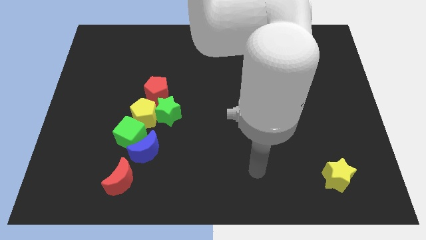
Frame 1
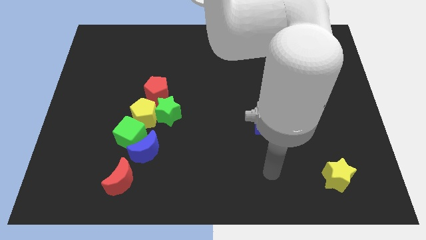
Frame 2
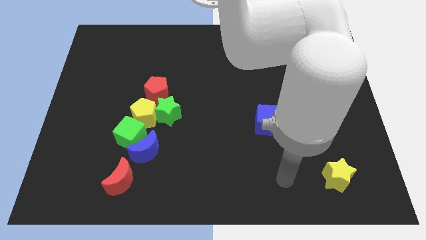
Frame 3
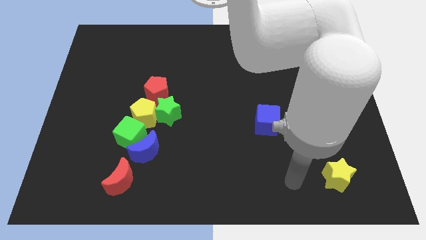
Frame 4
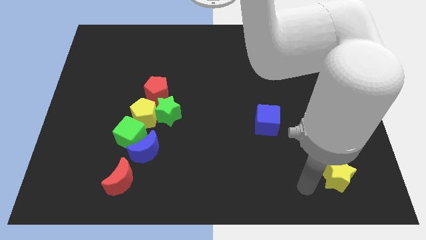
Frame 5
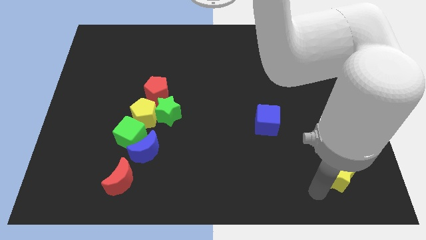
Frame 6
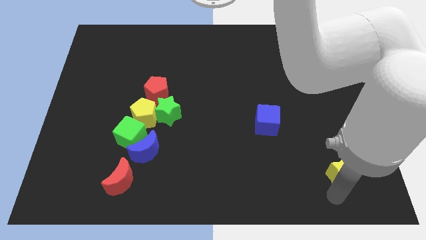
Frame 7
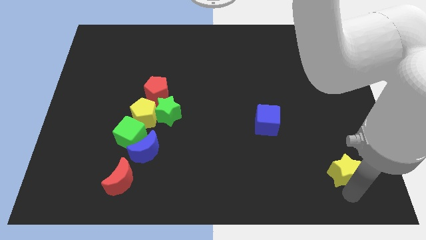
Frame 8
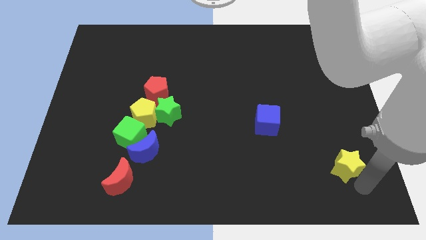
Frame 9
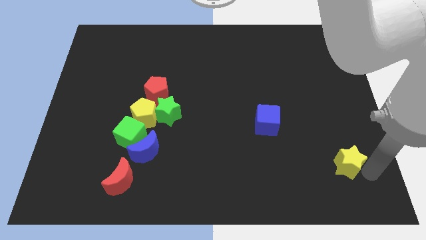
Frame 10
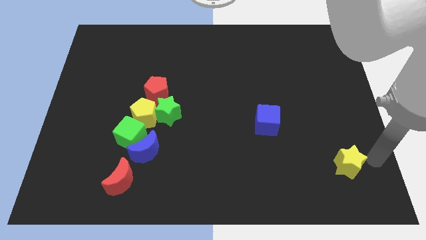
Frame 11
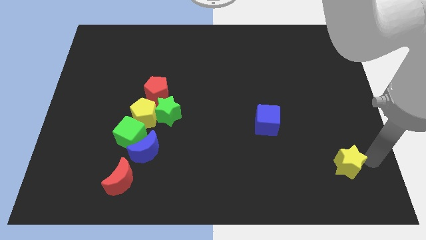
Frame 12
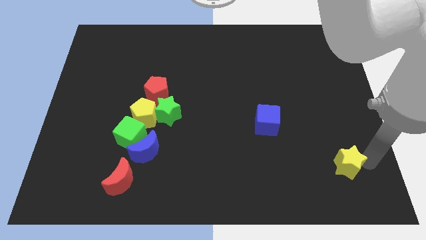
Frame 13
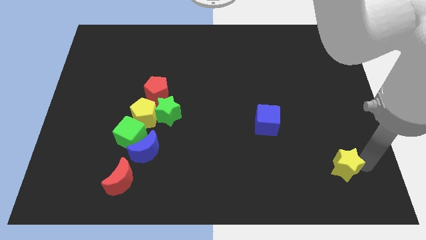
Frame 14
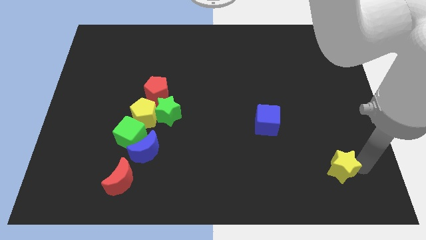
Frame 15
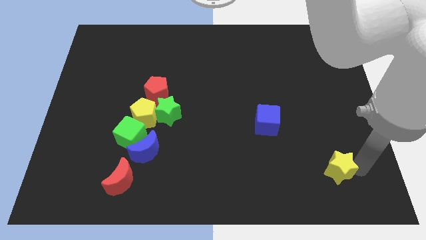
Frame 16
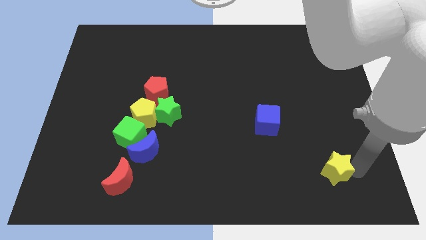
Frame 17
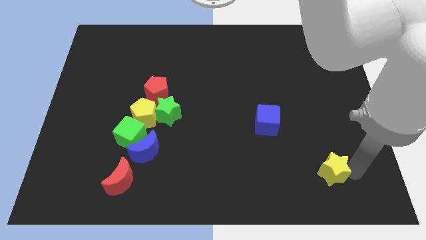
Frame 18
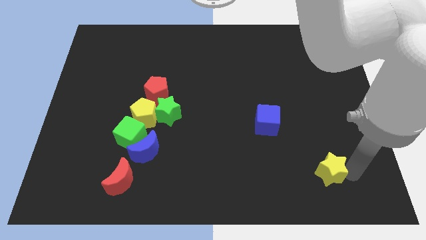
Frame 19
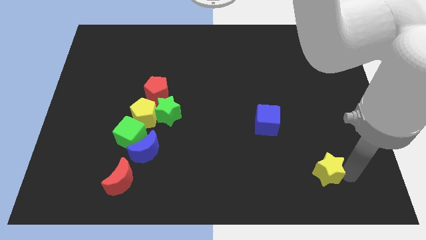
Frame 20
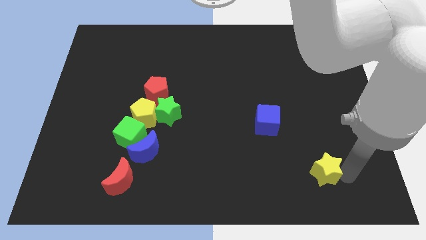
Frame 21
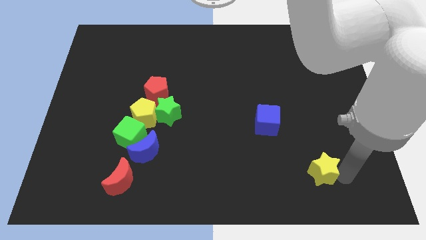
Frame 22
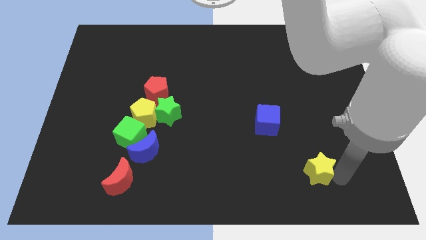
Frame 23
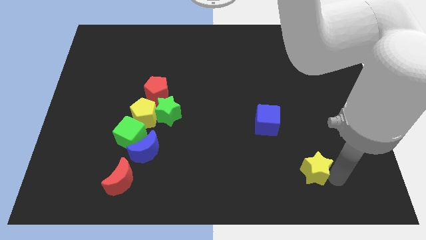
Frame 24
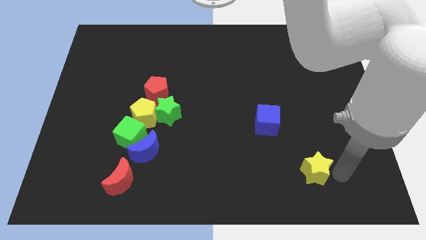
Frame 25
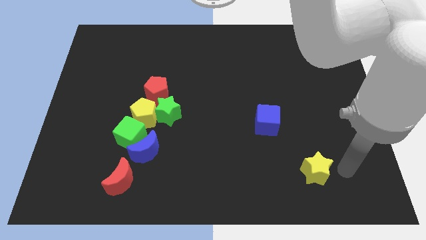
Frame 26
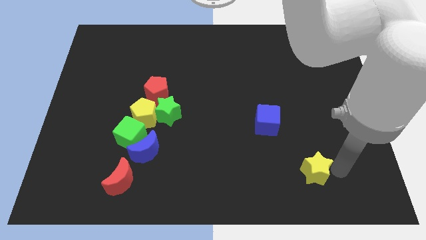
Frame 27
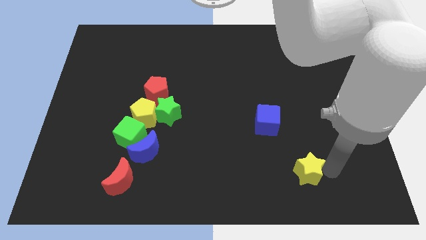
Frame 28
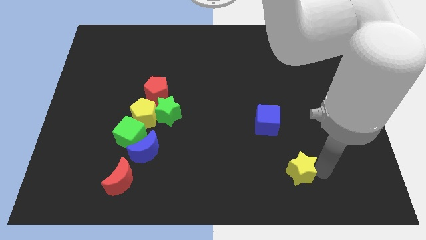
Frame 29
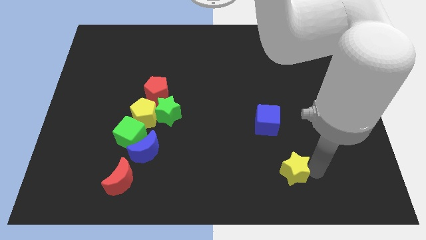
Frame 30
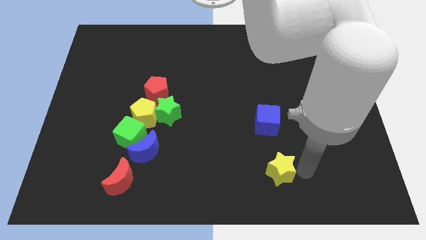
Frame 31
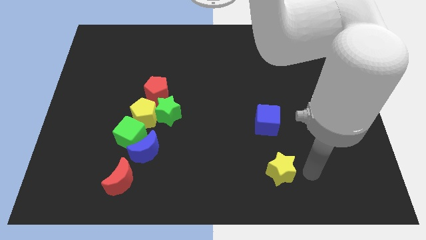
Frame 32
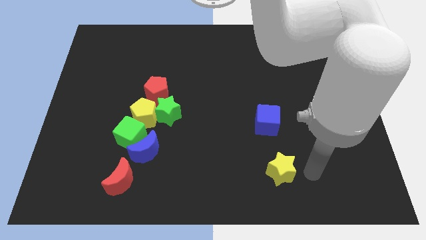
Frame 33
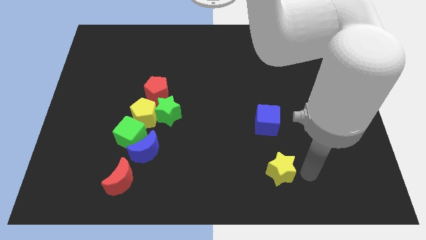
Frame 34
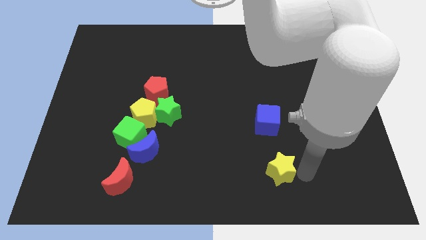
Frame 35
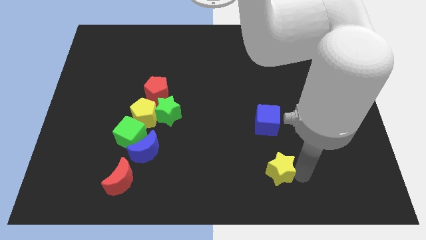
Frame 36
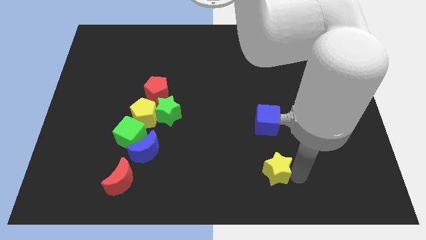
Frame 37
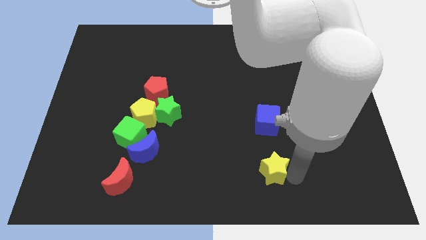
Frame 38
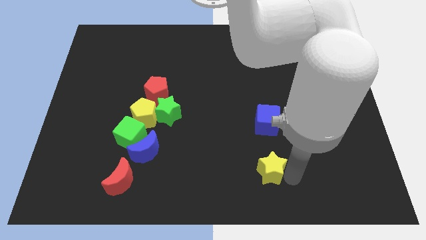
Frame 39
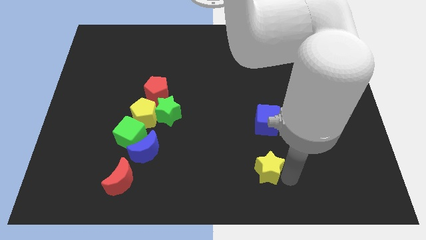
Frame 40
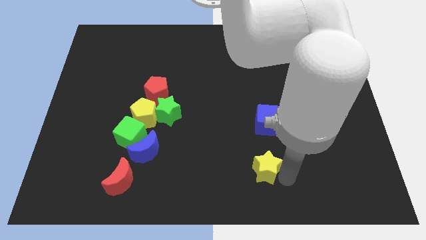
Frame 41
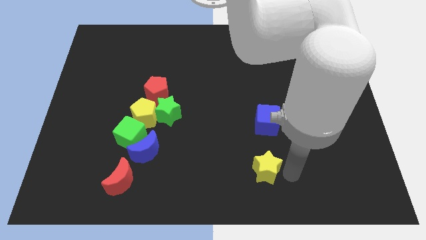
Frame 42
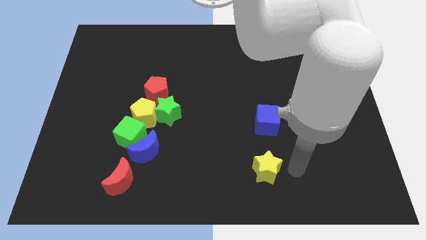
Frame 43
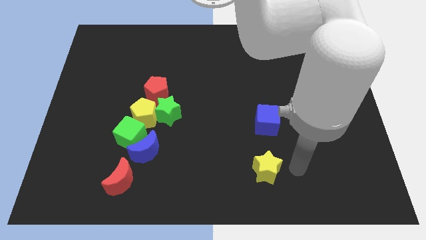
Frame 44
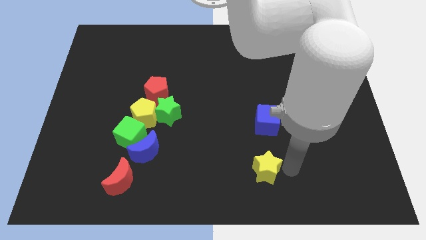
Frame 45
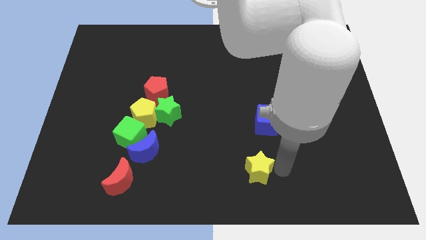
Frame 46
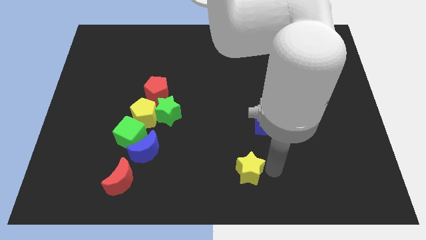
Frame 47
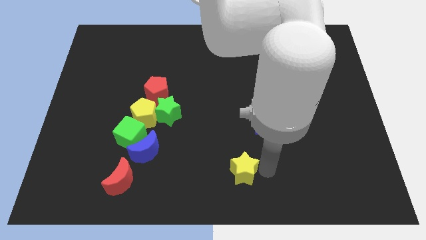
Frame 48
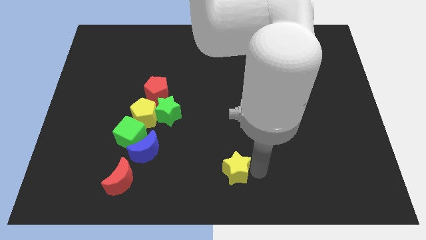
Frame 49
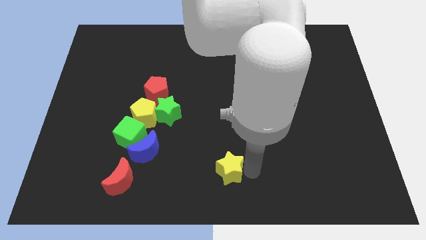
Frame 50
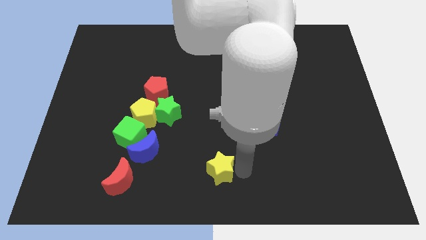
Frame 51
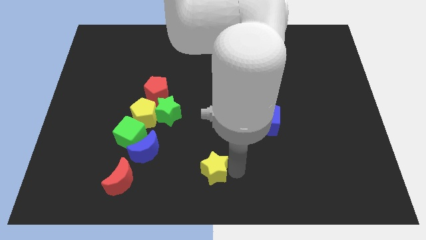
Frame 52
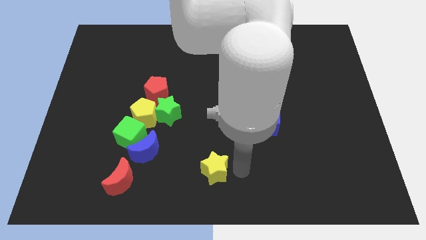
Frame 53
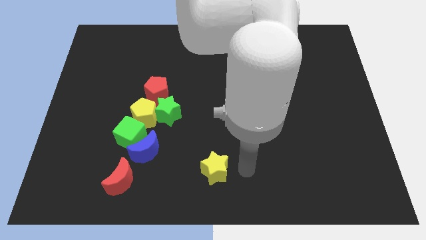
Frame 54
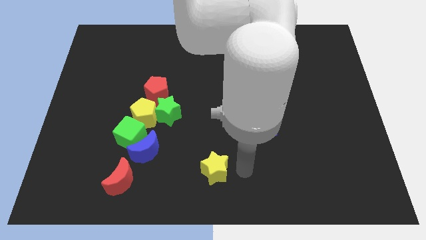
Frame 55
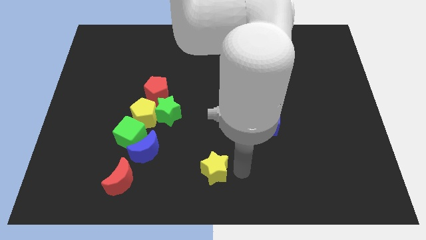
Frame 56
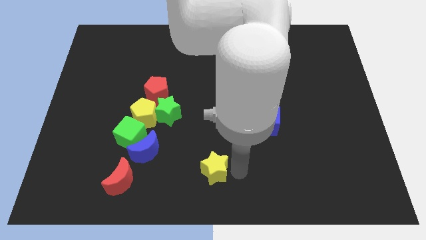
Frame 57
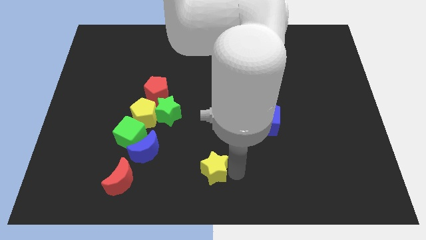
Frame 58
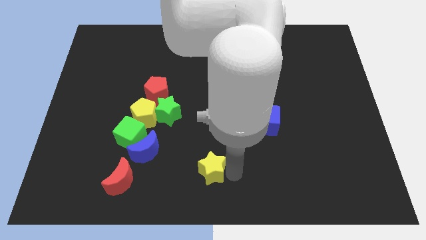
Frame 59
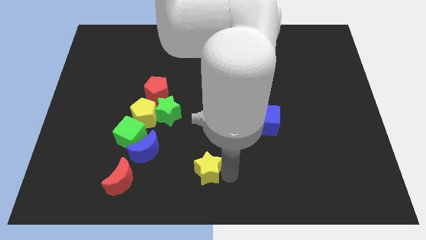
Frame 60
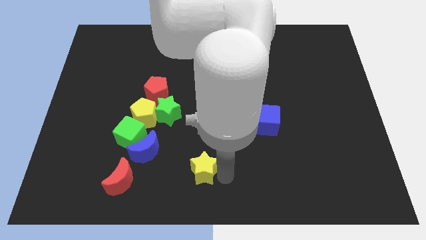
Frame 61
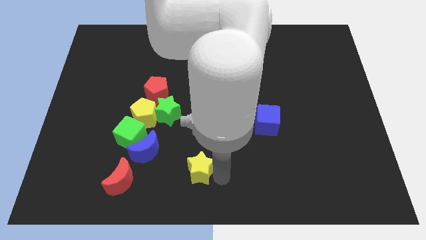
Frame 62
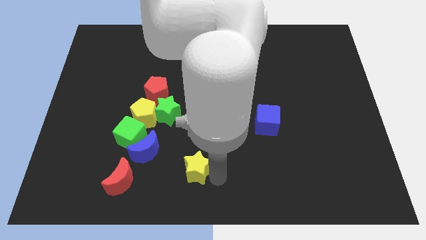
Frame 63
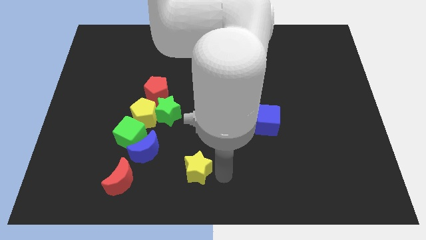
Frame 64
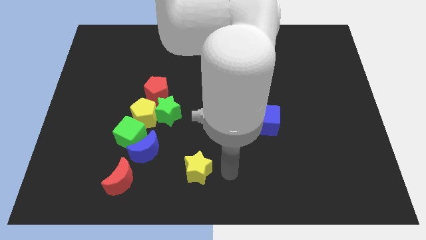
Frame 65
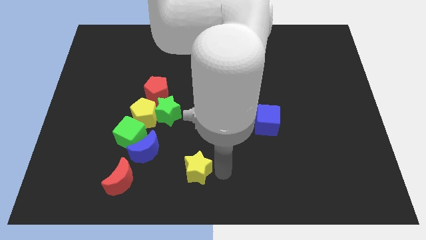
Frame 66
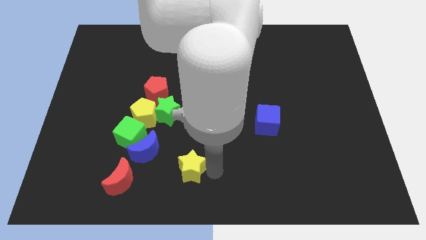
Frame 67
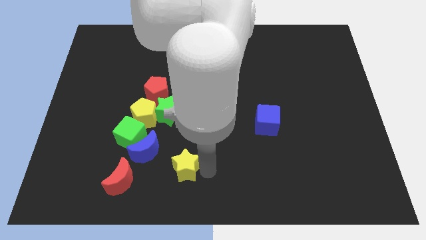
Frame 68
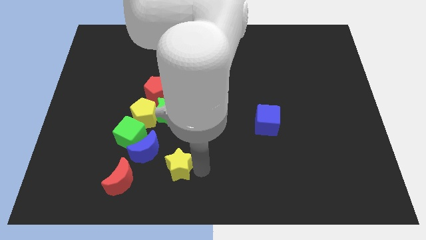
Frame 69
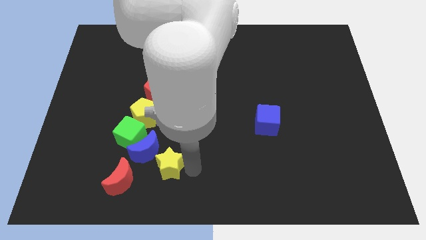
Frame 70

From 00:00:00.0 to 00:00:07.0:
put the yellow star to the bottom right of the green cube
